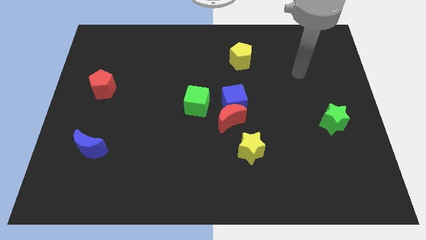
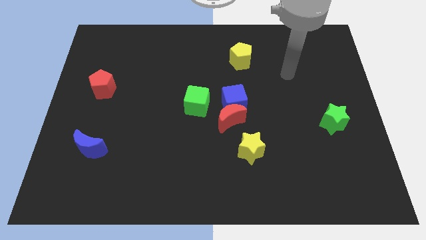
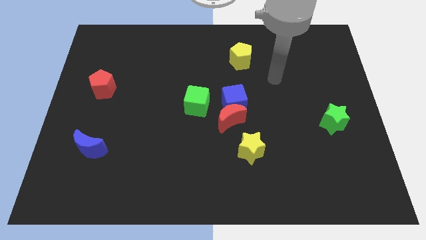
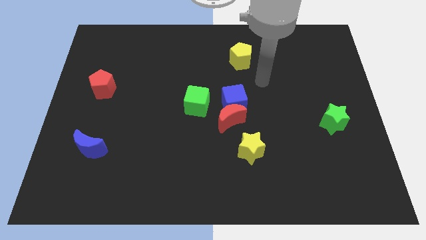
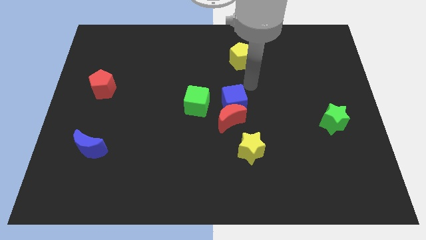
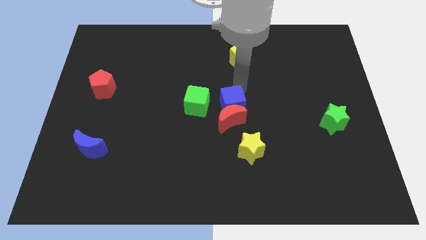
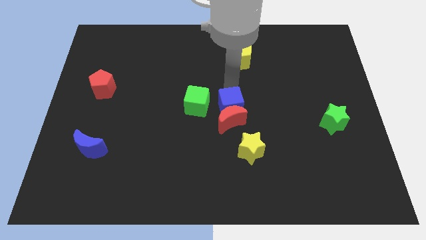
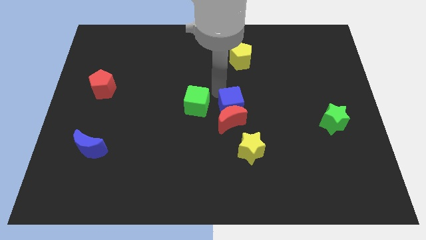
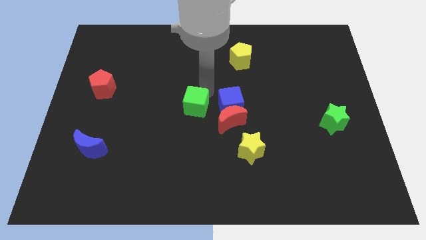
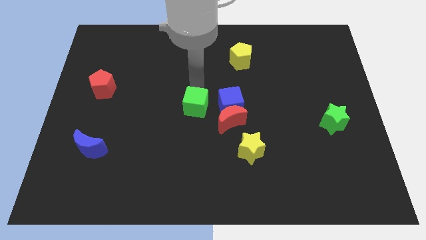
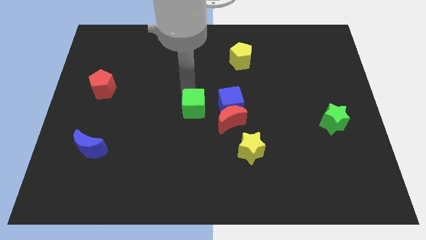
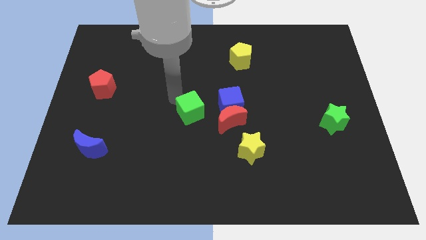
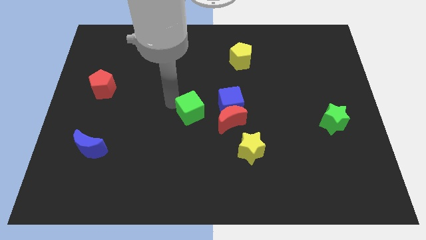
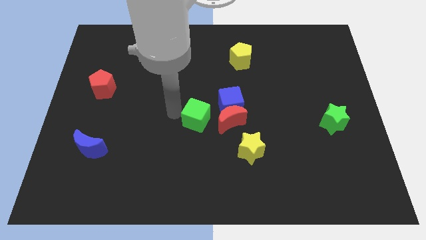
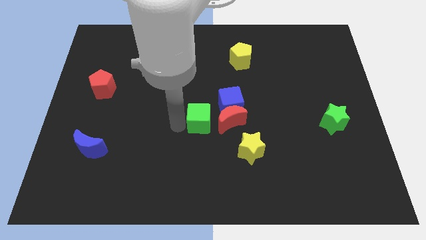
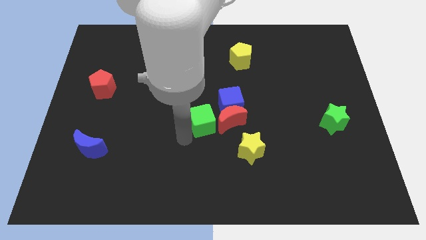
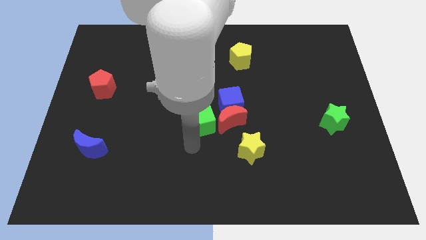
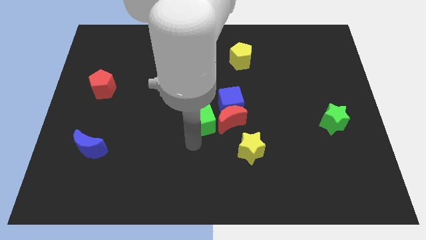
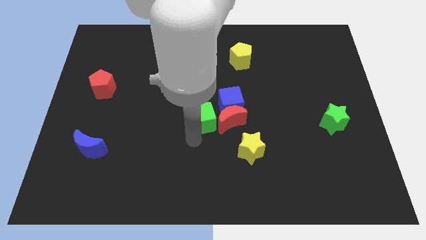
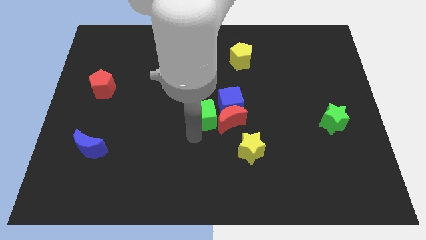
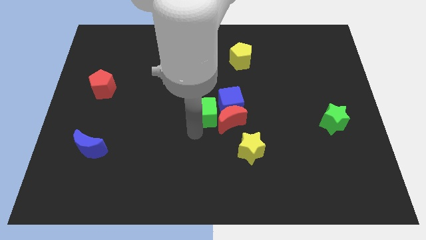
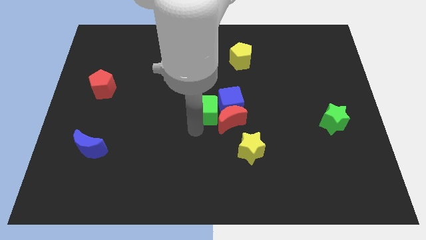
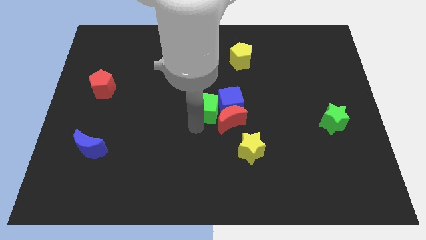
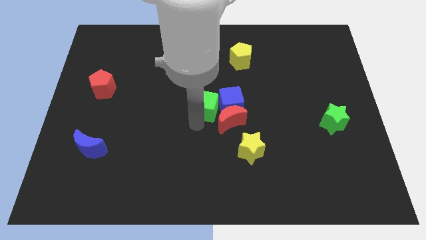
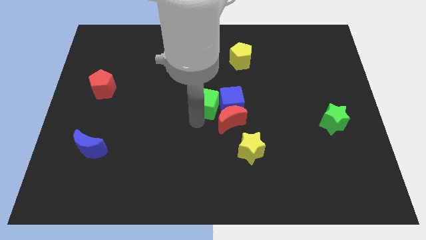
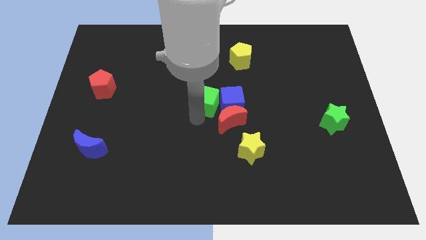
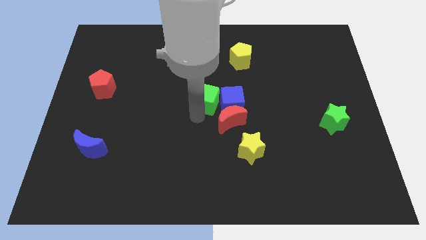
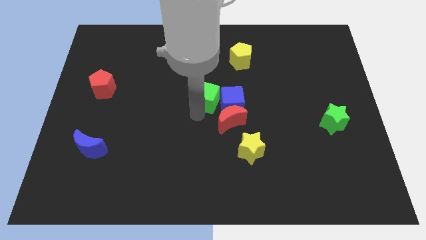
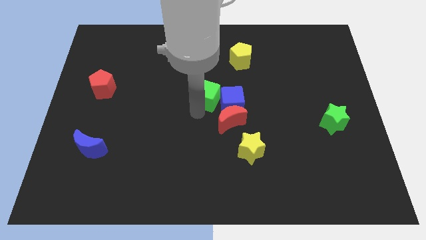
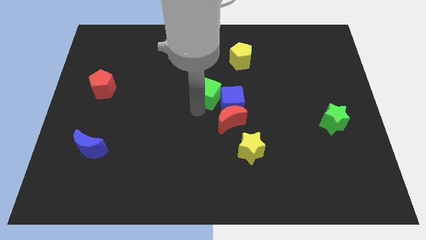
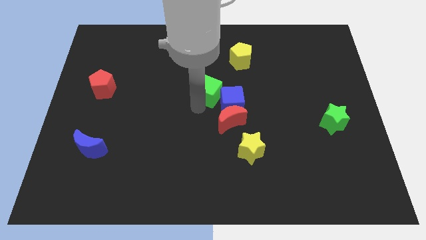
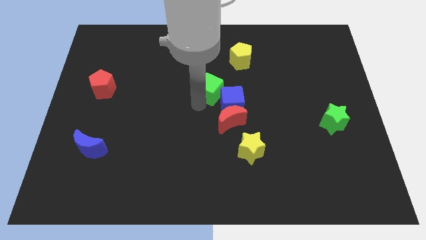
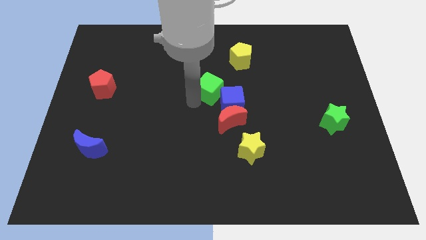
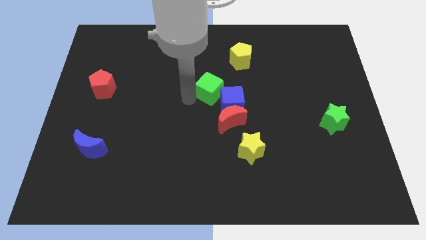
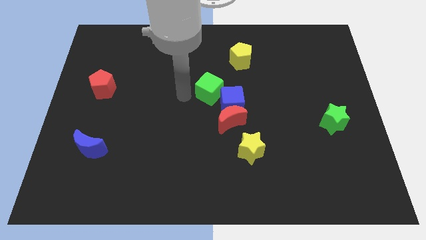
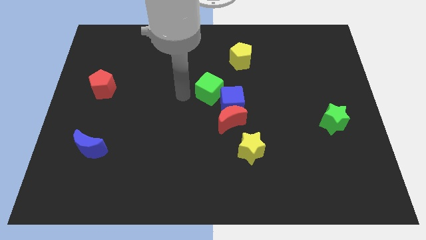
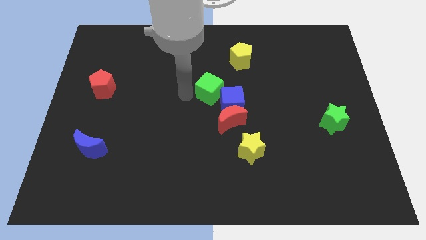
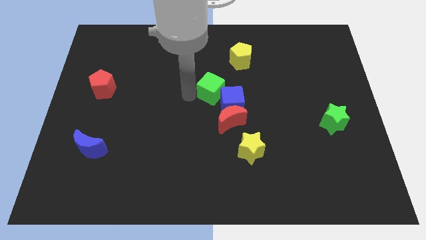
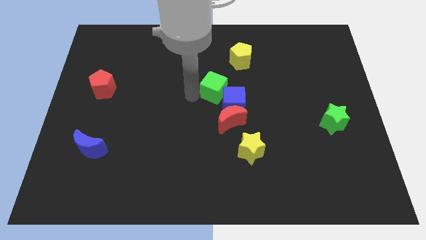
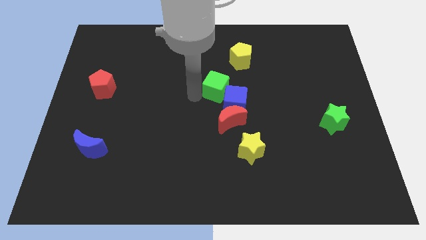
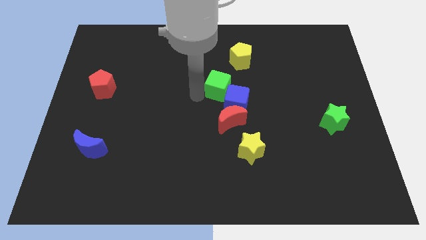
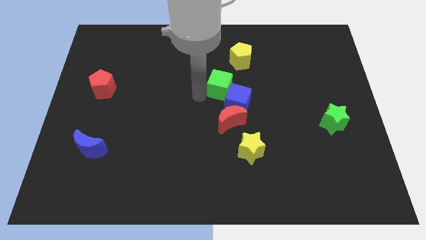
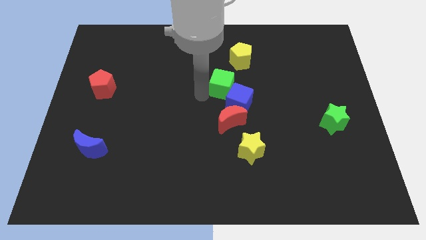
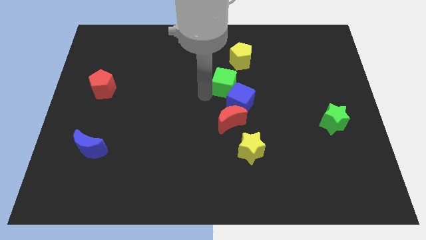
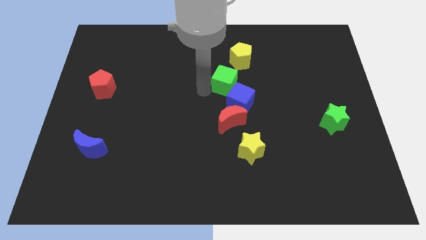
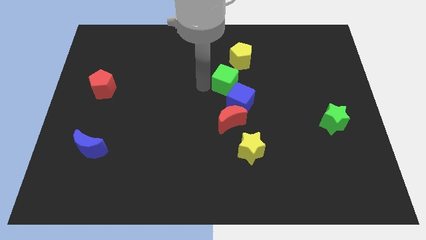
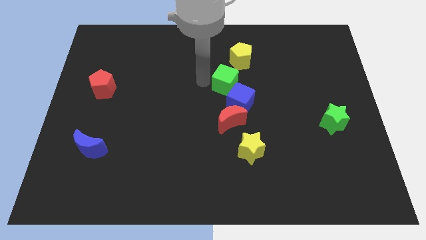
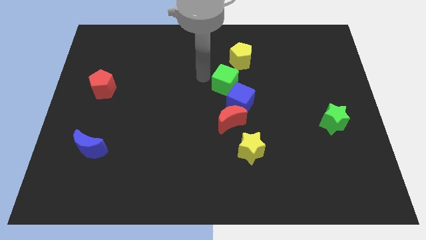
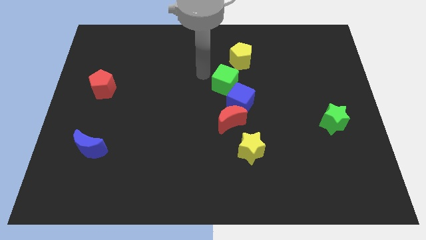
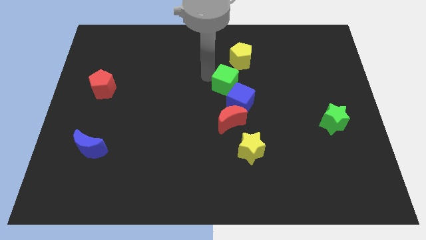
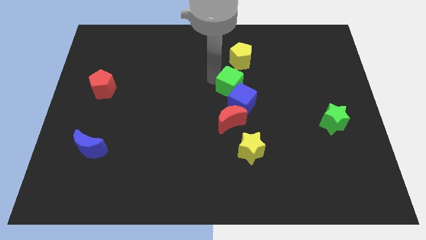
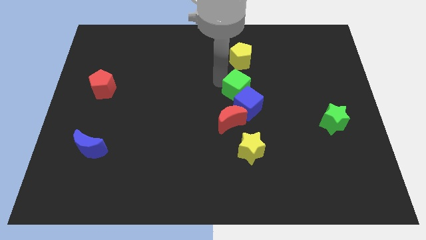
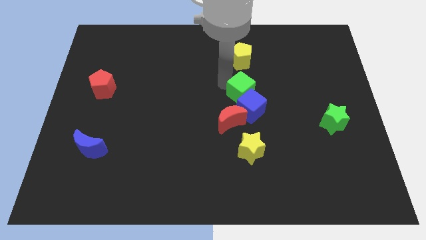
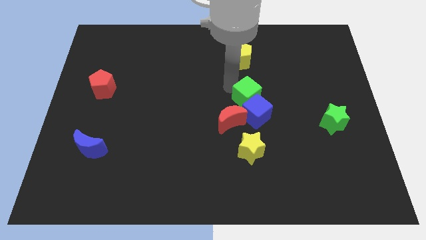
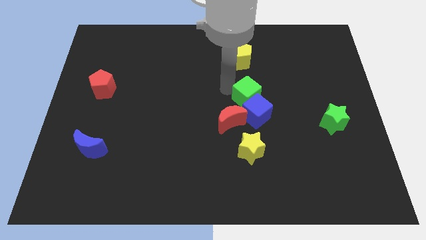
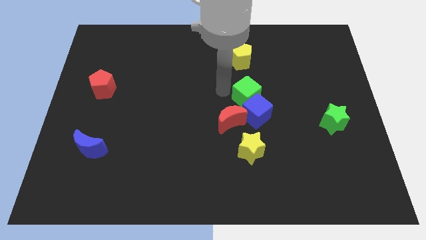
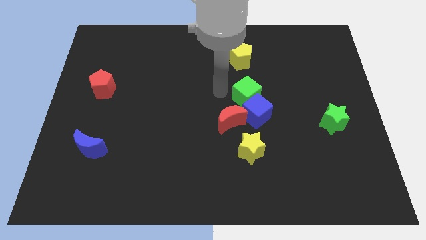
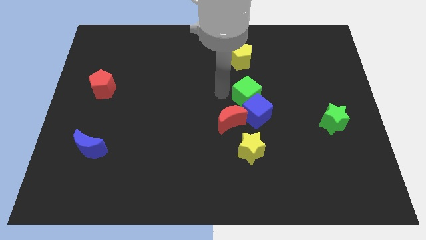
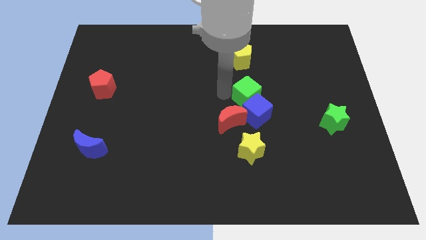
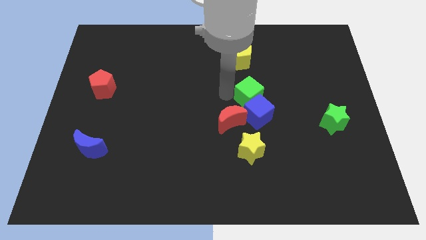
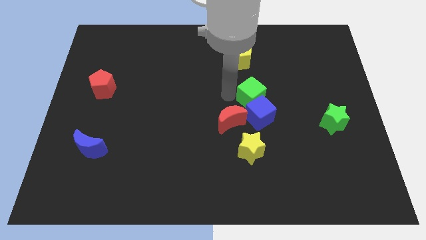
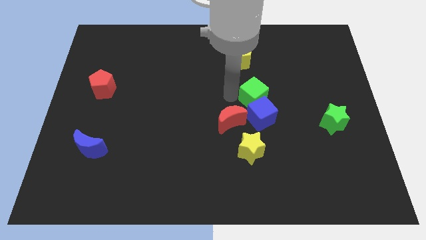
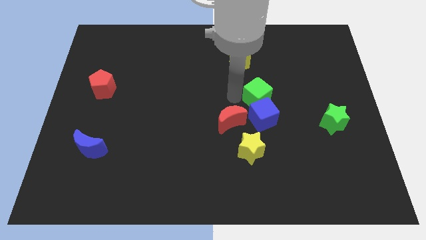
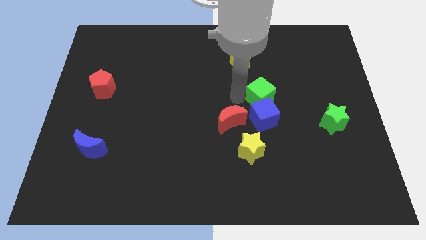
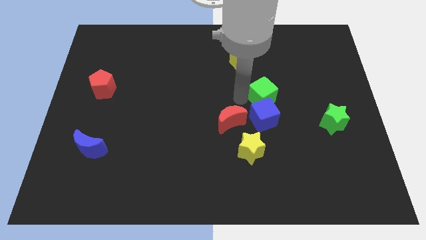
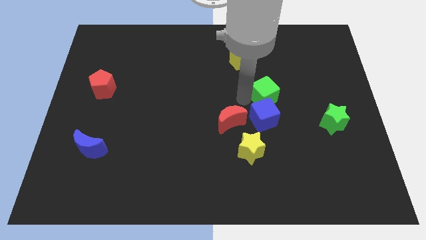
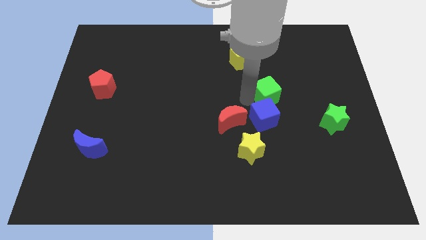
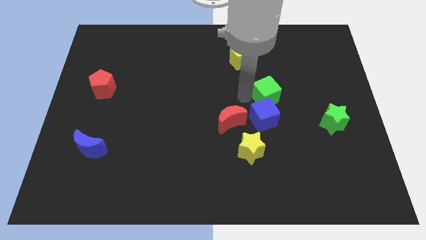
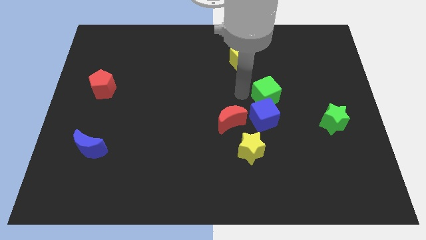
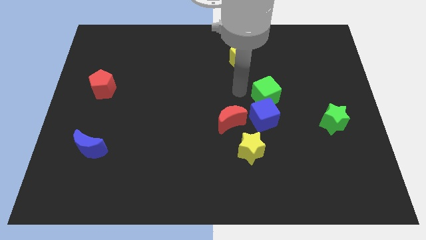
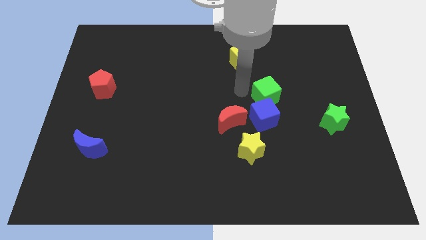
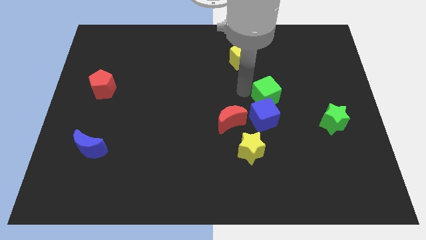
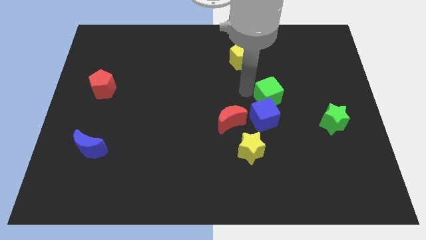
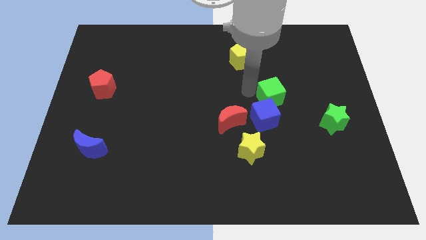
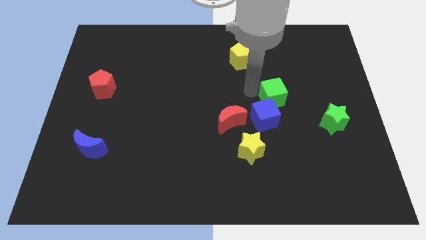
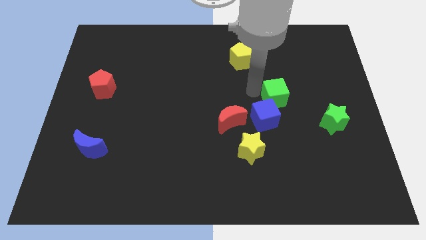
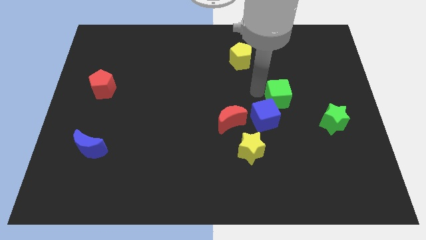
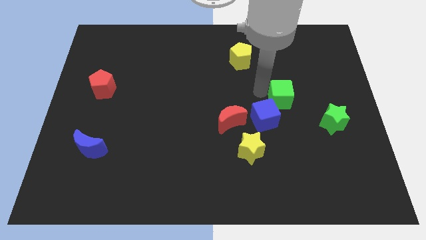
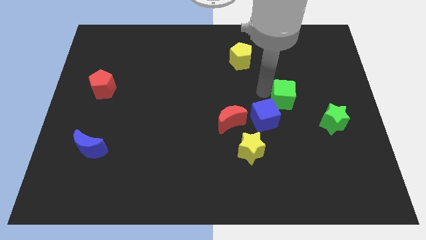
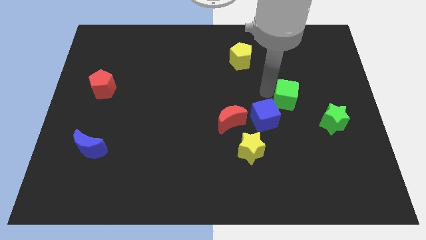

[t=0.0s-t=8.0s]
slide the green cube to the top left side of the green star
